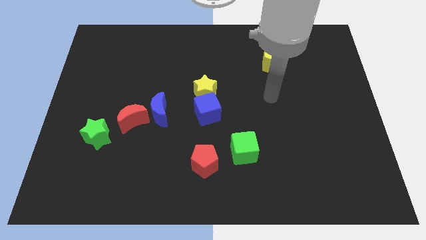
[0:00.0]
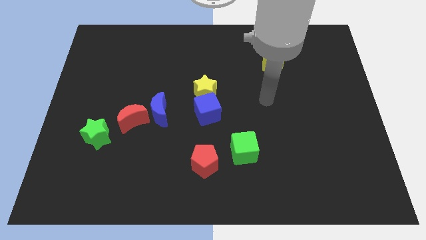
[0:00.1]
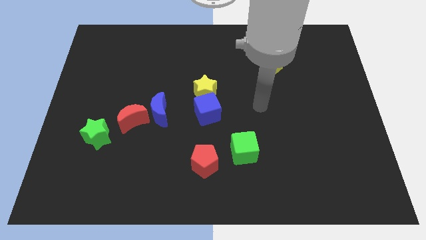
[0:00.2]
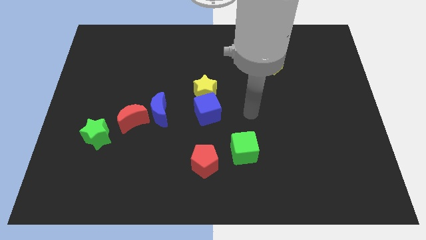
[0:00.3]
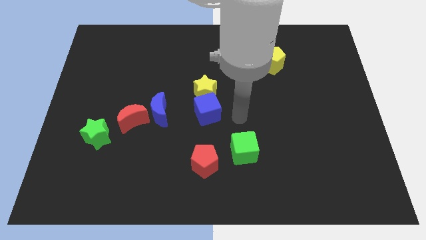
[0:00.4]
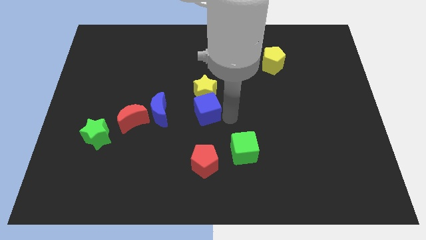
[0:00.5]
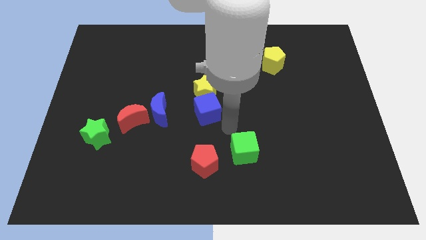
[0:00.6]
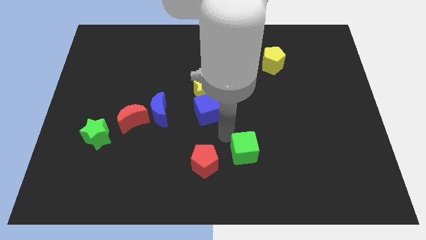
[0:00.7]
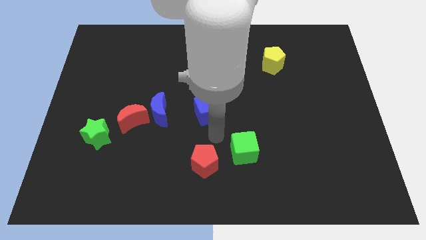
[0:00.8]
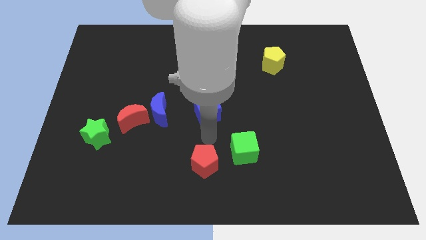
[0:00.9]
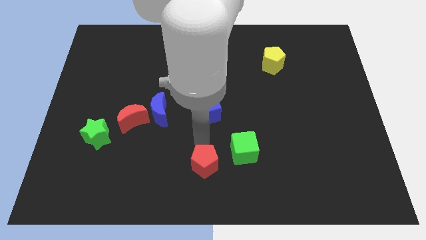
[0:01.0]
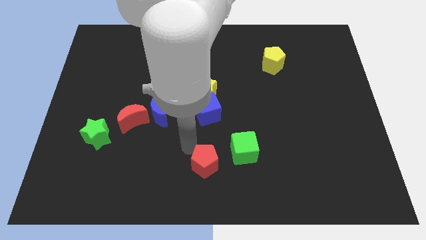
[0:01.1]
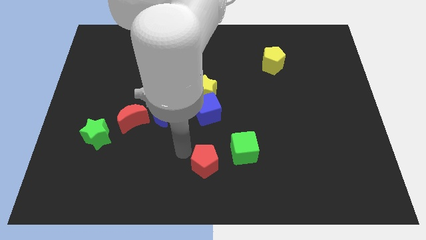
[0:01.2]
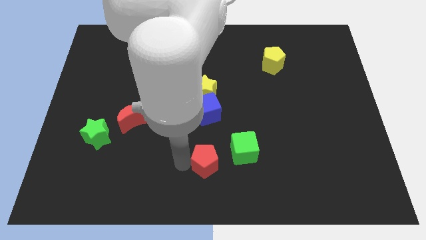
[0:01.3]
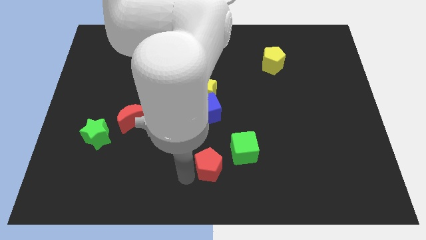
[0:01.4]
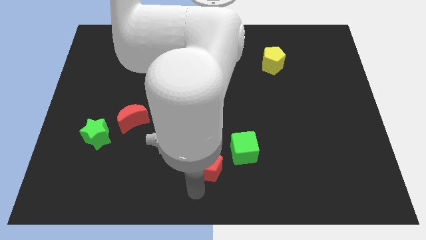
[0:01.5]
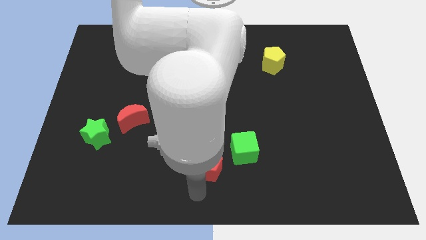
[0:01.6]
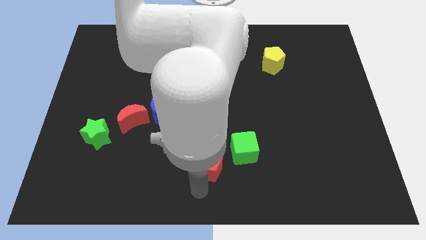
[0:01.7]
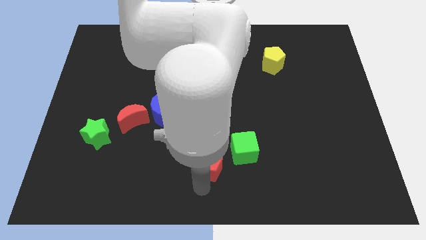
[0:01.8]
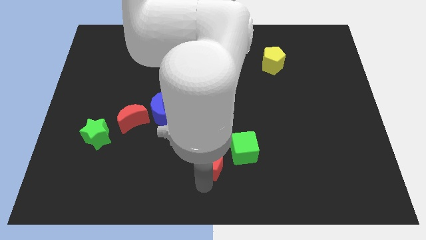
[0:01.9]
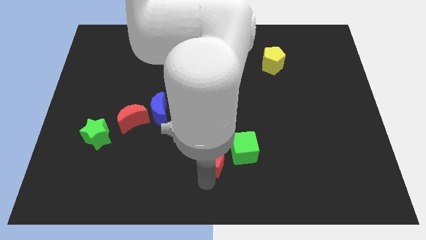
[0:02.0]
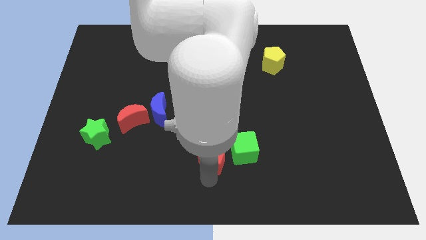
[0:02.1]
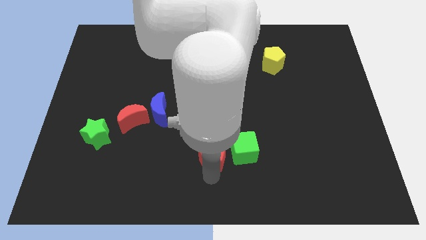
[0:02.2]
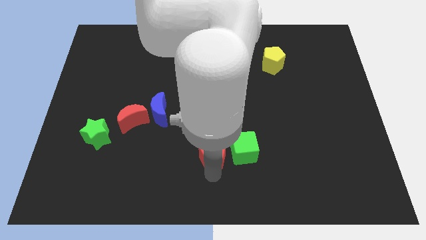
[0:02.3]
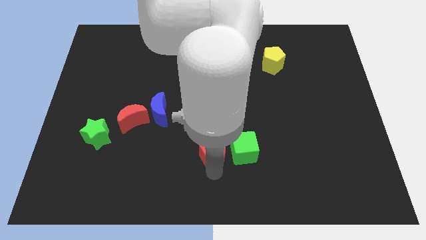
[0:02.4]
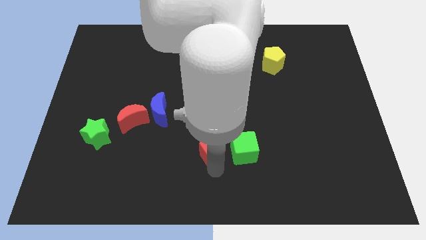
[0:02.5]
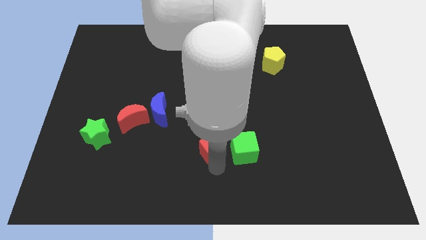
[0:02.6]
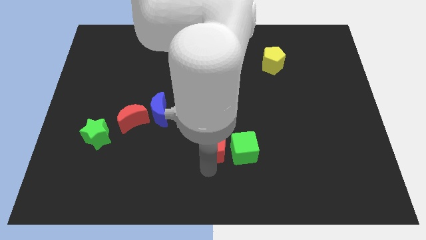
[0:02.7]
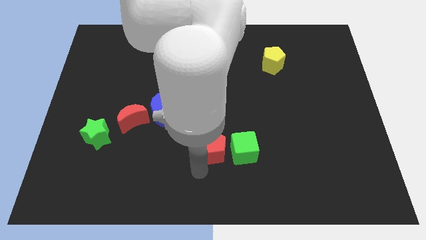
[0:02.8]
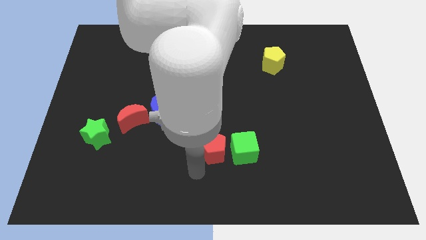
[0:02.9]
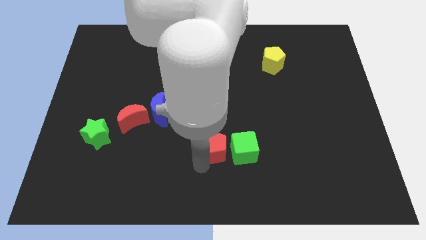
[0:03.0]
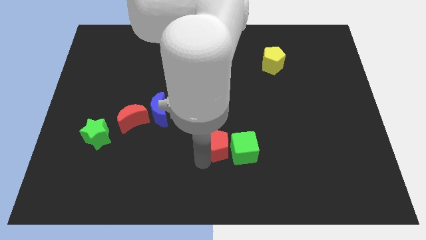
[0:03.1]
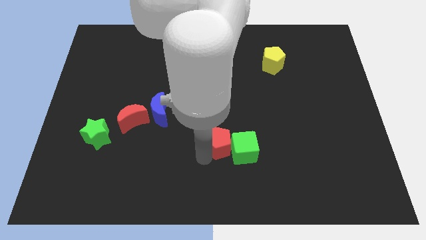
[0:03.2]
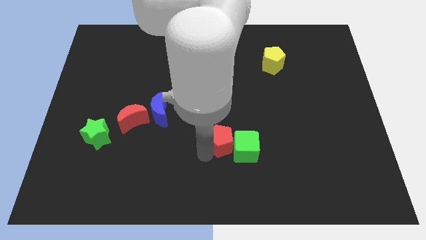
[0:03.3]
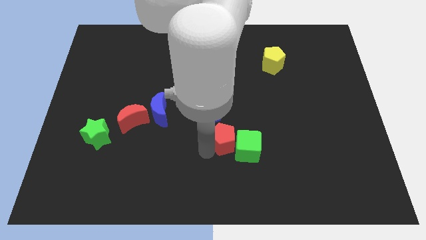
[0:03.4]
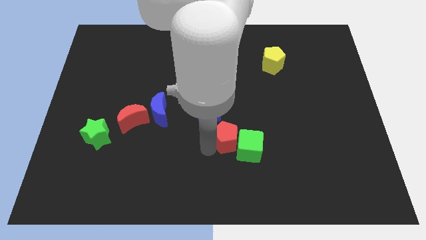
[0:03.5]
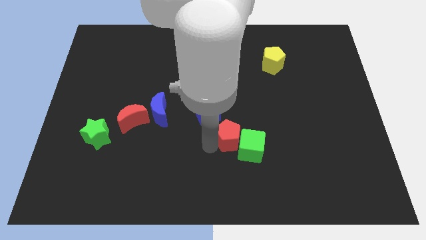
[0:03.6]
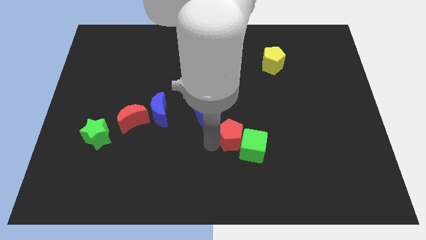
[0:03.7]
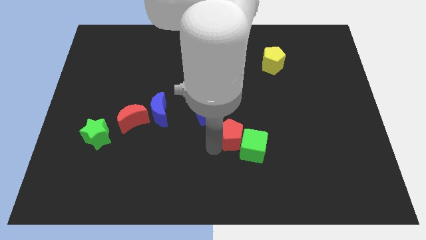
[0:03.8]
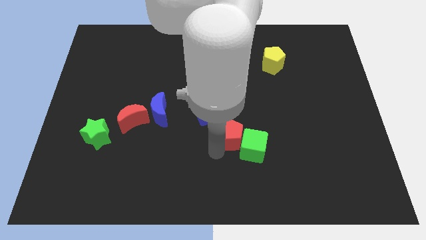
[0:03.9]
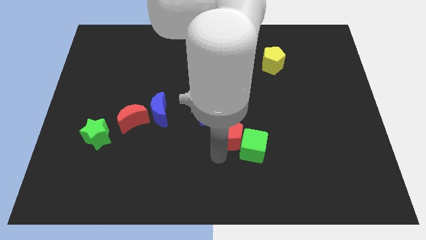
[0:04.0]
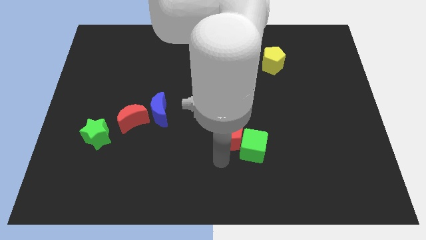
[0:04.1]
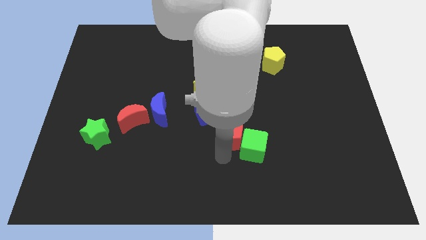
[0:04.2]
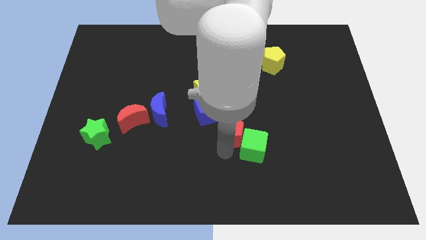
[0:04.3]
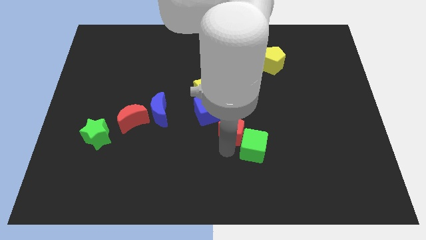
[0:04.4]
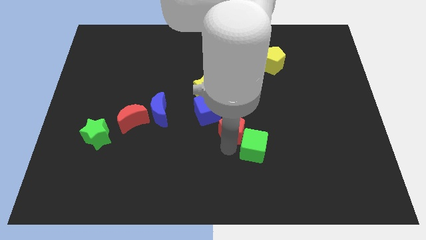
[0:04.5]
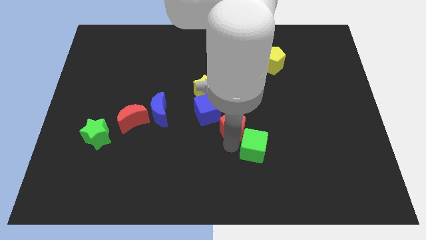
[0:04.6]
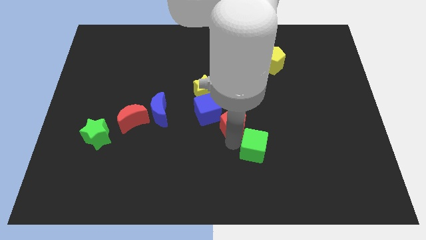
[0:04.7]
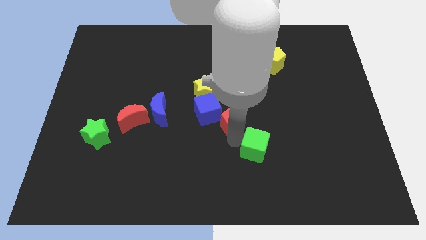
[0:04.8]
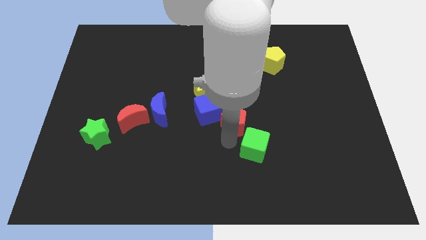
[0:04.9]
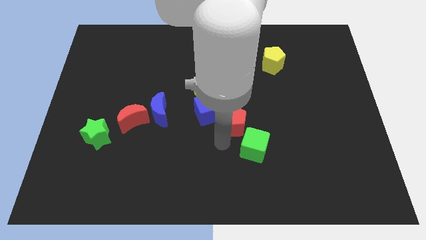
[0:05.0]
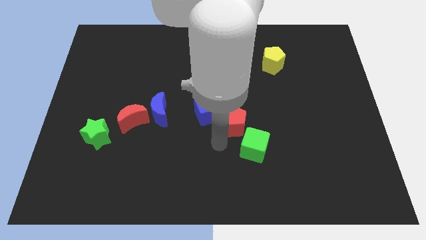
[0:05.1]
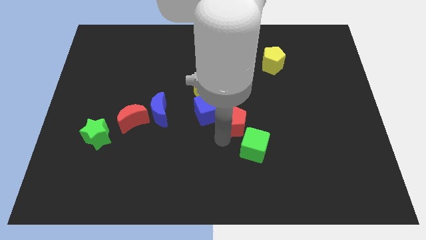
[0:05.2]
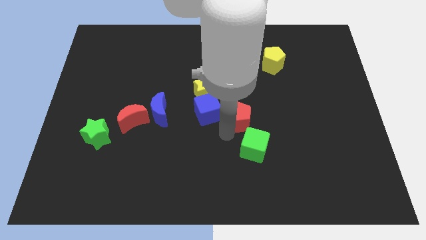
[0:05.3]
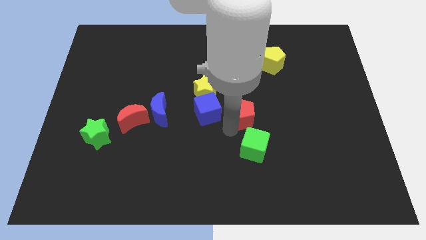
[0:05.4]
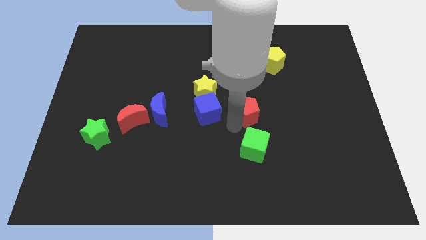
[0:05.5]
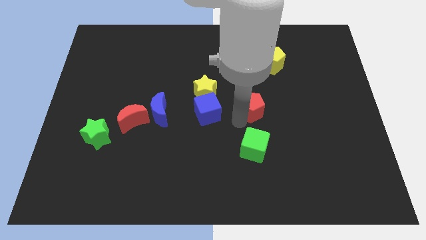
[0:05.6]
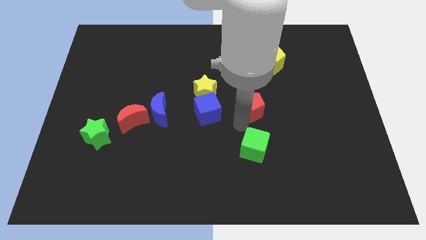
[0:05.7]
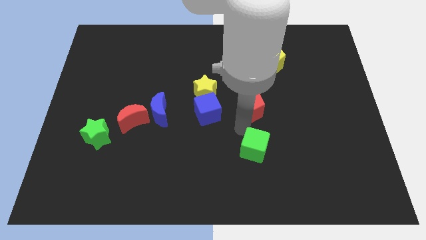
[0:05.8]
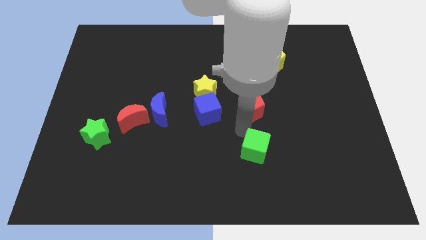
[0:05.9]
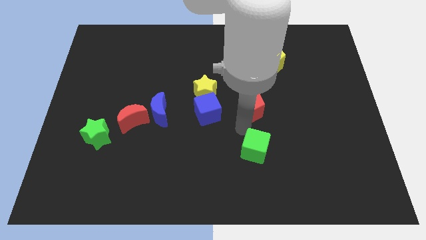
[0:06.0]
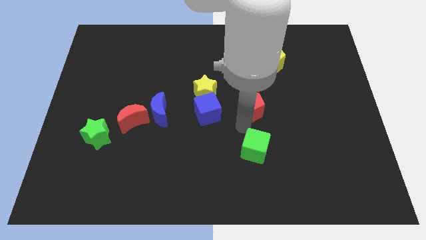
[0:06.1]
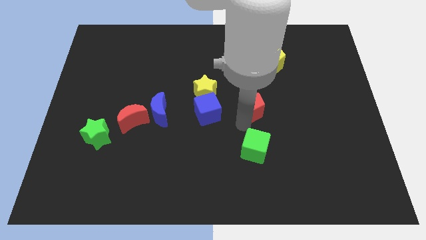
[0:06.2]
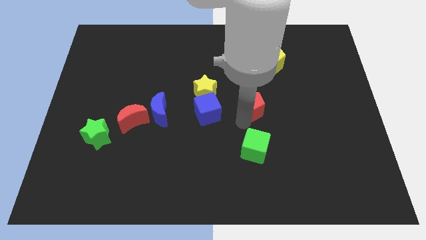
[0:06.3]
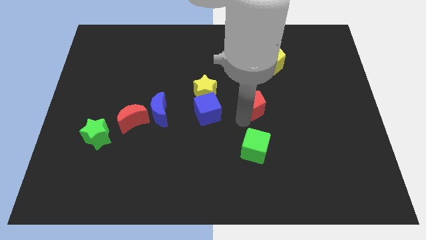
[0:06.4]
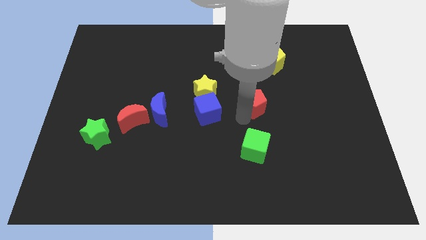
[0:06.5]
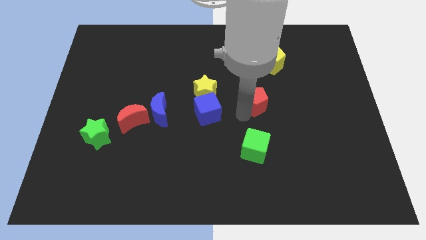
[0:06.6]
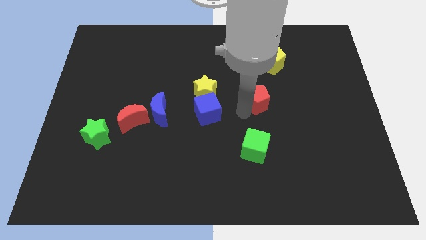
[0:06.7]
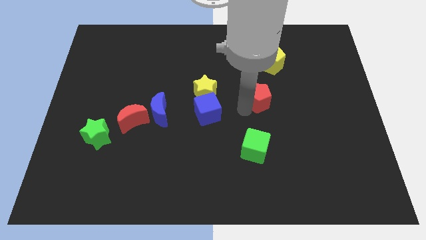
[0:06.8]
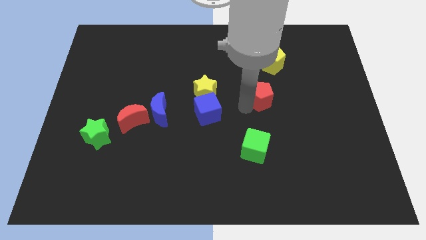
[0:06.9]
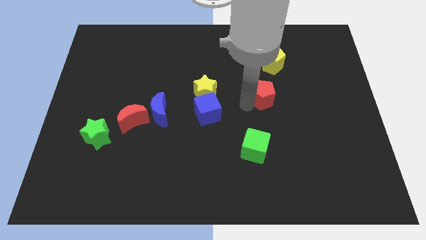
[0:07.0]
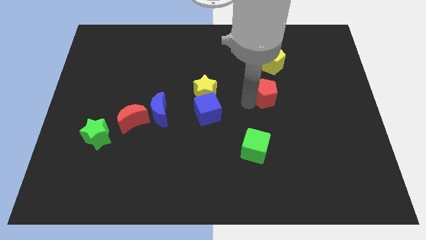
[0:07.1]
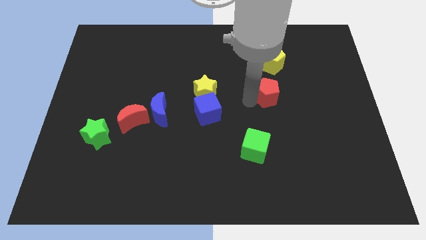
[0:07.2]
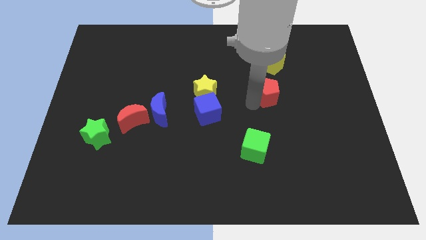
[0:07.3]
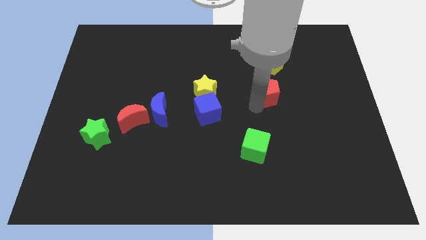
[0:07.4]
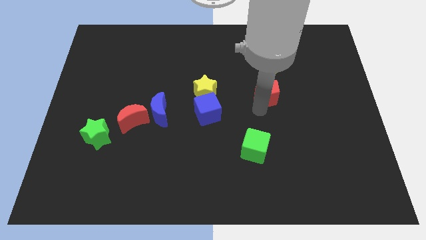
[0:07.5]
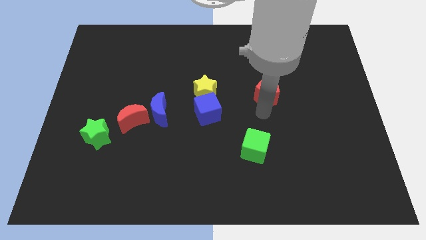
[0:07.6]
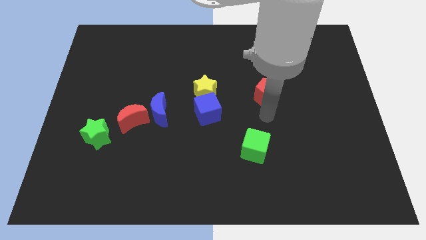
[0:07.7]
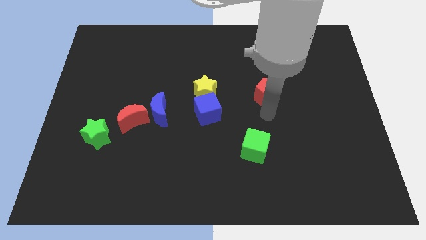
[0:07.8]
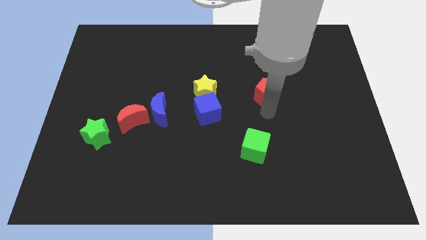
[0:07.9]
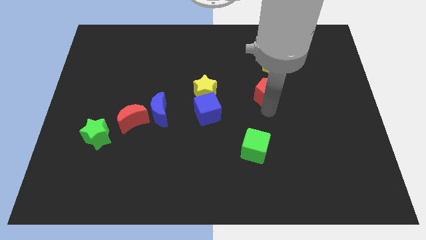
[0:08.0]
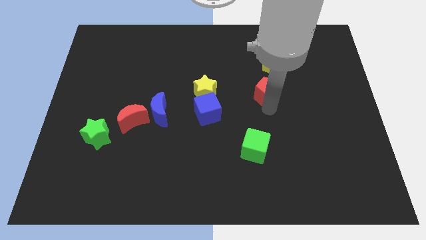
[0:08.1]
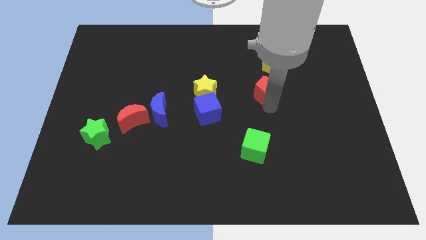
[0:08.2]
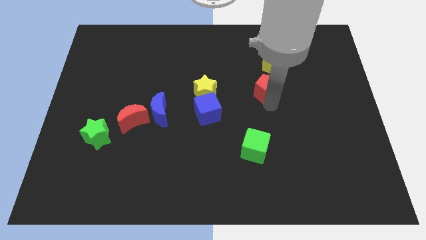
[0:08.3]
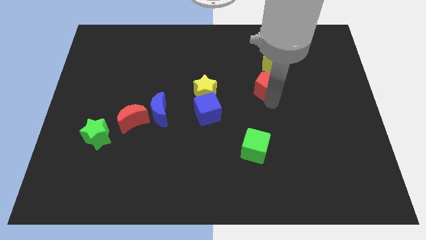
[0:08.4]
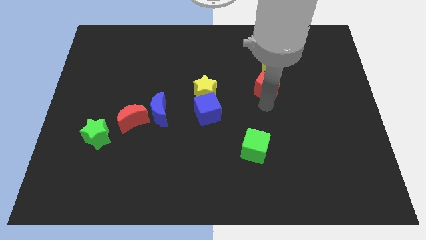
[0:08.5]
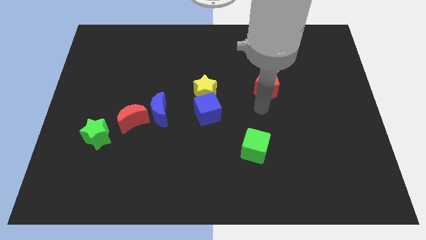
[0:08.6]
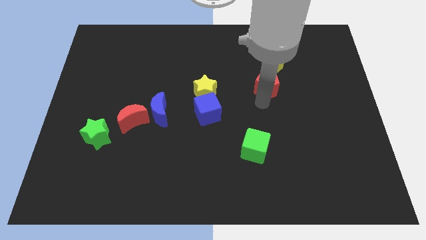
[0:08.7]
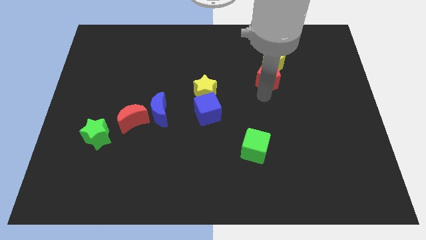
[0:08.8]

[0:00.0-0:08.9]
move the red pentagon towards the yellow pentagon
